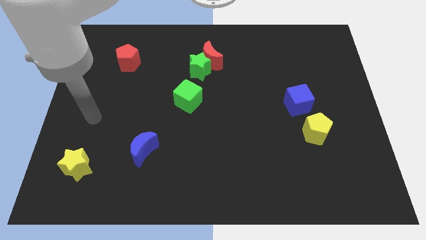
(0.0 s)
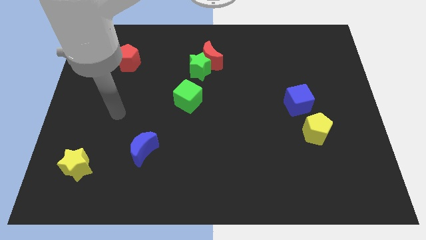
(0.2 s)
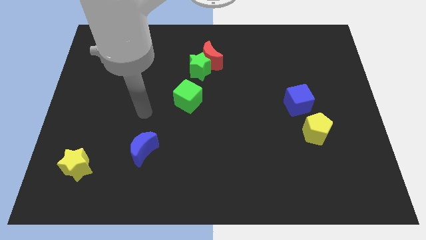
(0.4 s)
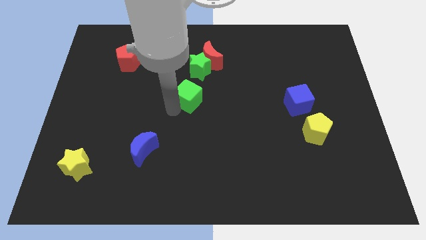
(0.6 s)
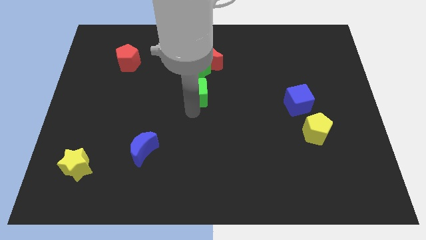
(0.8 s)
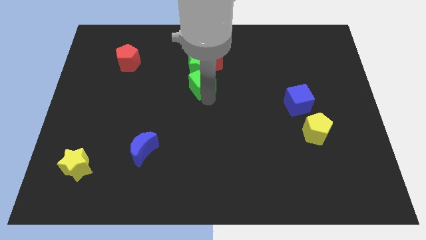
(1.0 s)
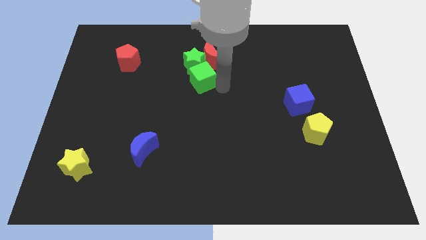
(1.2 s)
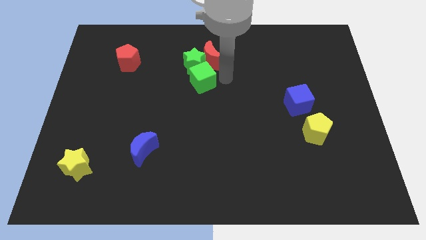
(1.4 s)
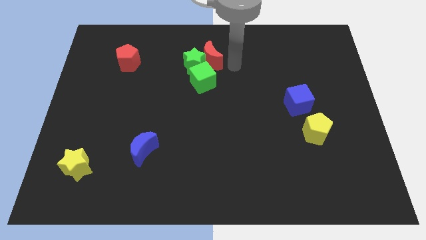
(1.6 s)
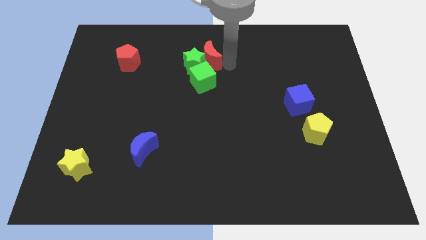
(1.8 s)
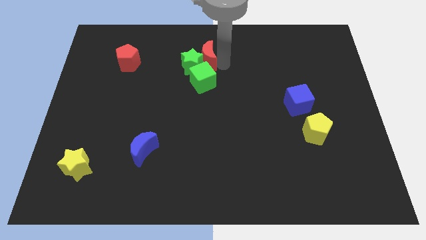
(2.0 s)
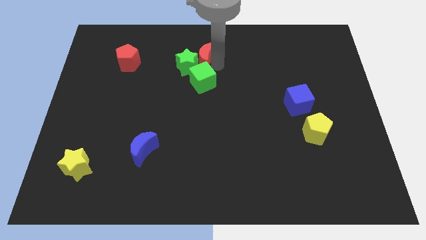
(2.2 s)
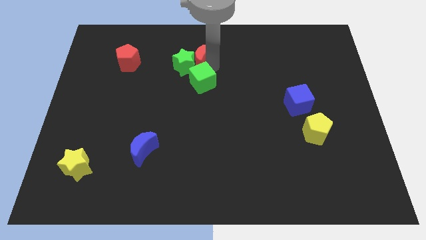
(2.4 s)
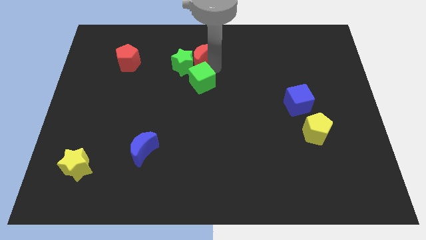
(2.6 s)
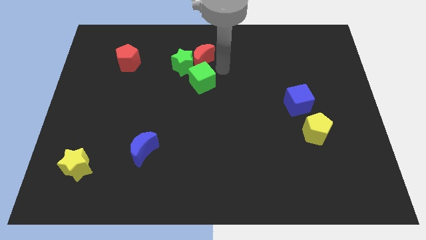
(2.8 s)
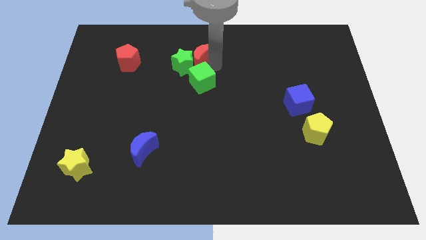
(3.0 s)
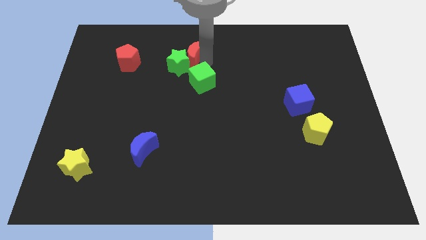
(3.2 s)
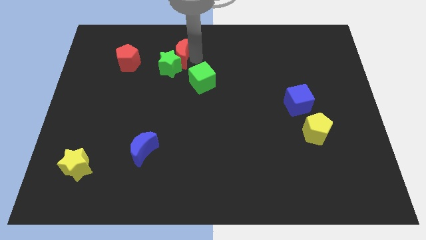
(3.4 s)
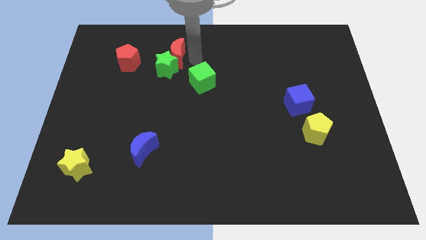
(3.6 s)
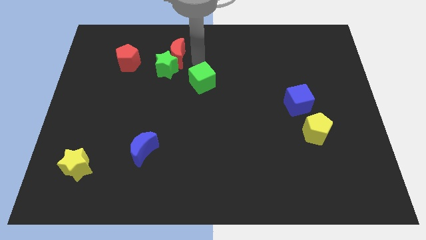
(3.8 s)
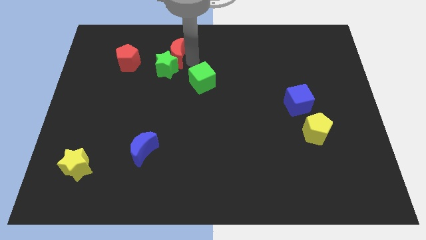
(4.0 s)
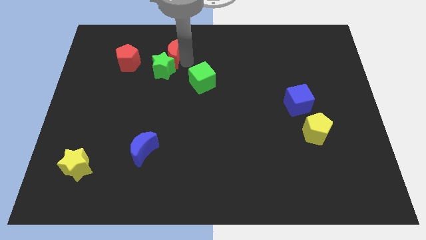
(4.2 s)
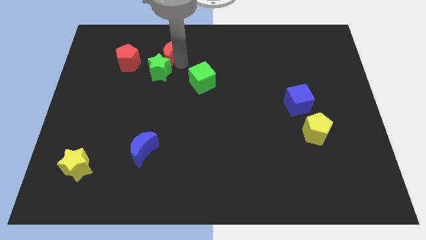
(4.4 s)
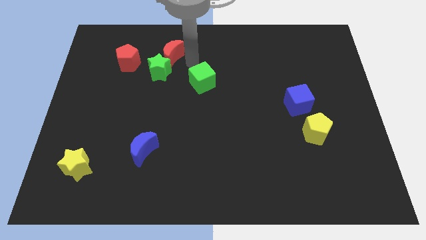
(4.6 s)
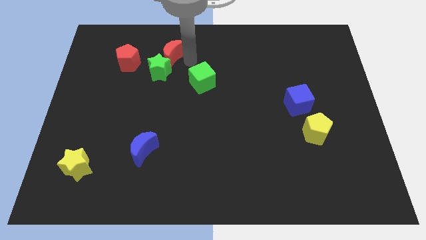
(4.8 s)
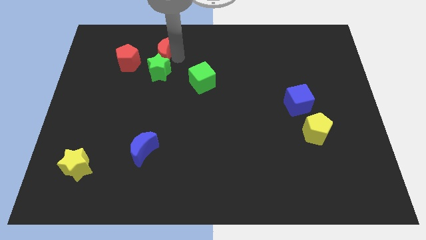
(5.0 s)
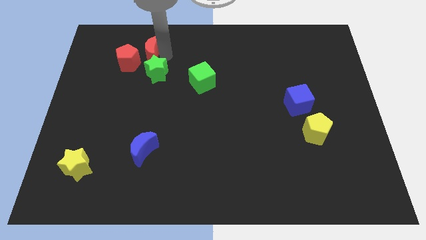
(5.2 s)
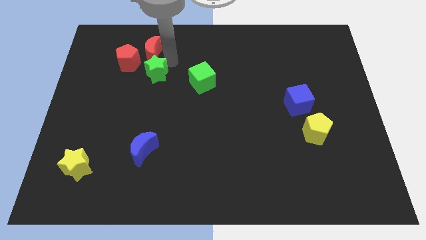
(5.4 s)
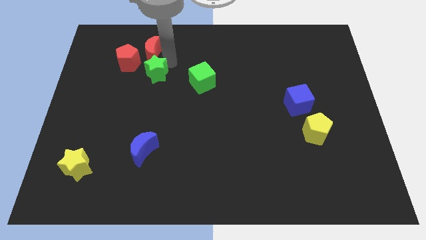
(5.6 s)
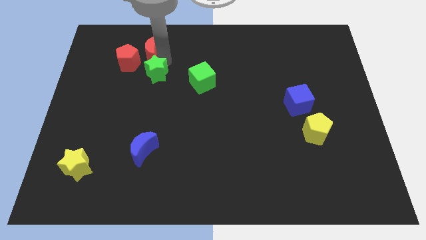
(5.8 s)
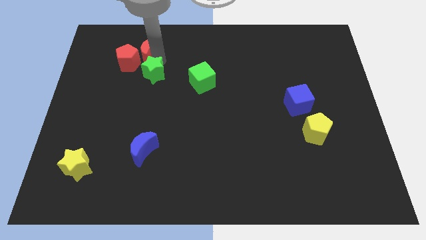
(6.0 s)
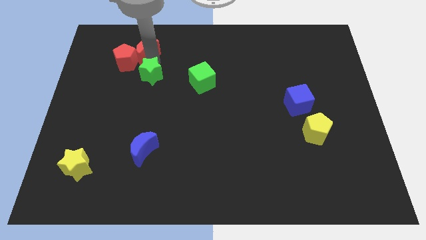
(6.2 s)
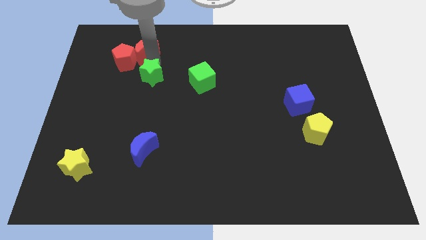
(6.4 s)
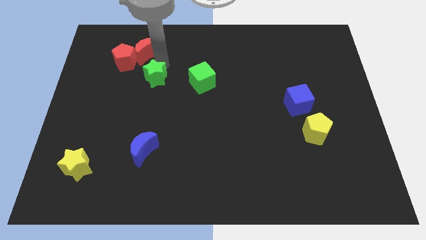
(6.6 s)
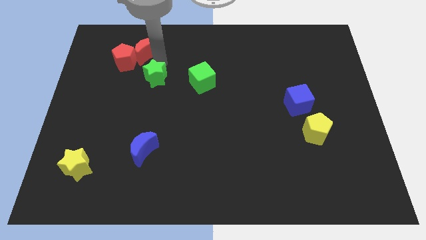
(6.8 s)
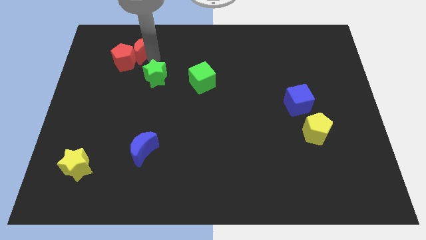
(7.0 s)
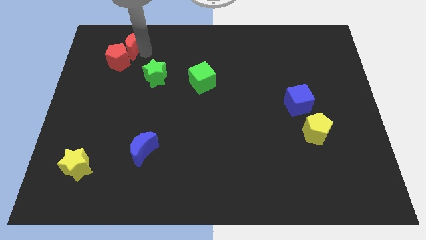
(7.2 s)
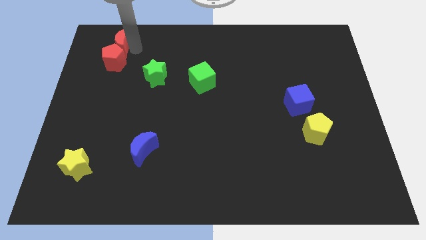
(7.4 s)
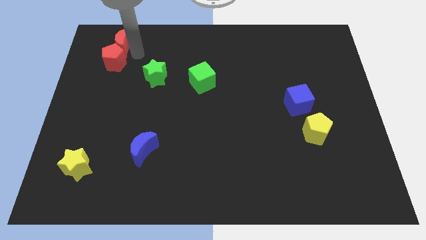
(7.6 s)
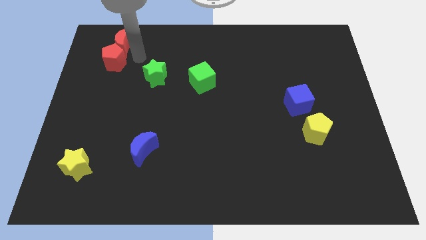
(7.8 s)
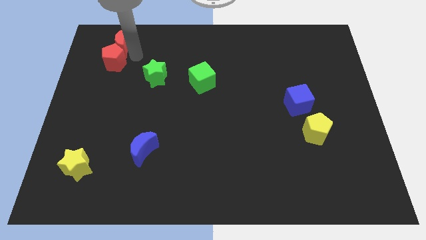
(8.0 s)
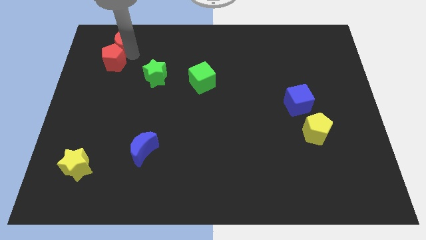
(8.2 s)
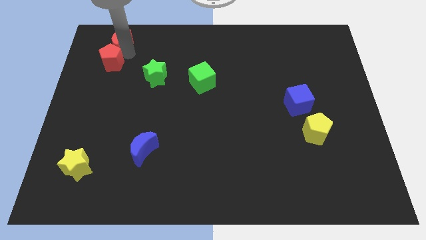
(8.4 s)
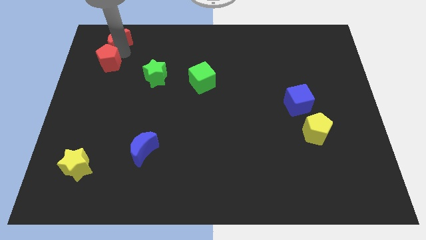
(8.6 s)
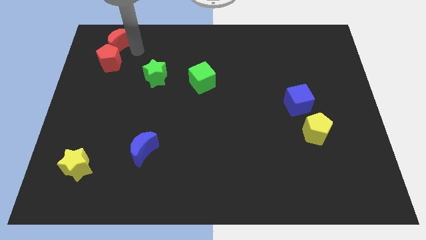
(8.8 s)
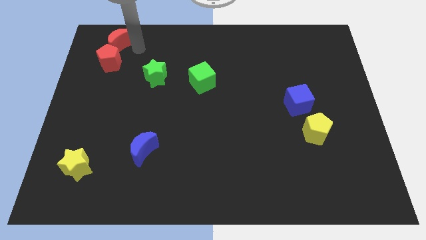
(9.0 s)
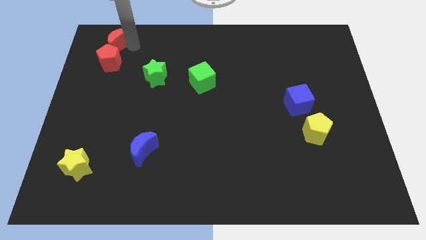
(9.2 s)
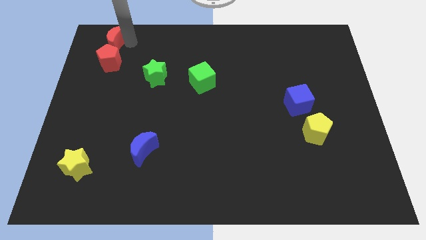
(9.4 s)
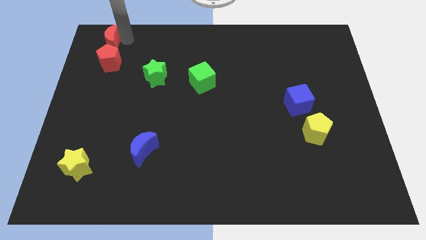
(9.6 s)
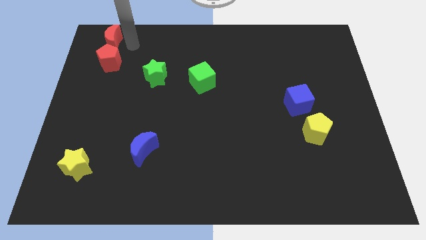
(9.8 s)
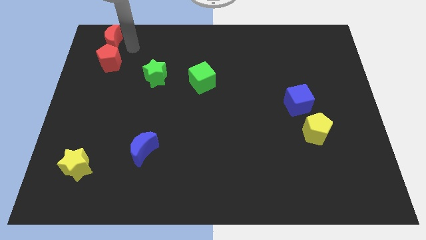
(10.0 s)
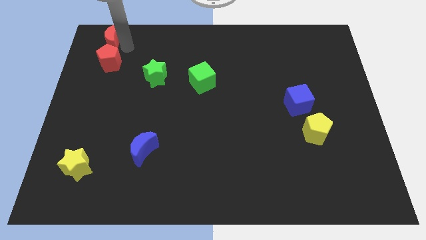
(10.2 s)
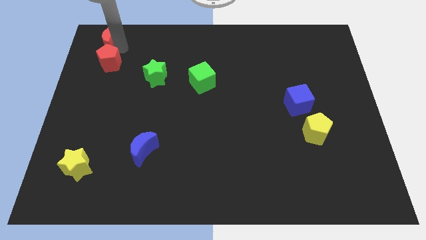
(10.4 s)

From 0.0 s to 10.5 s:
put the red moon to the upper left corner

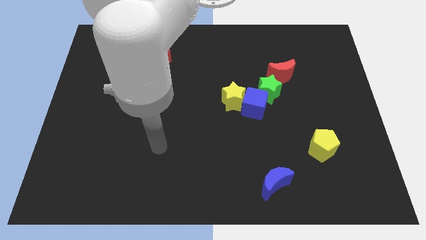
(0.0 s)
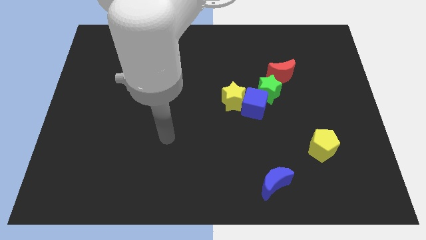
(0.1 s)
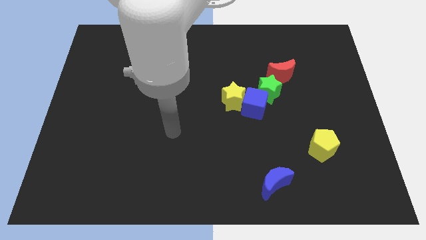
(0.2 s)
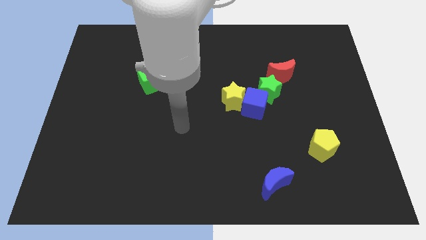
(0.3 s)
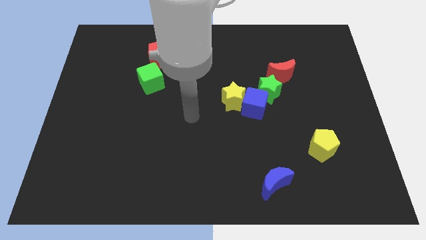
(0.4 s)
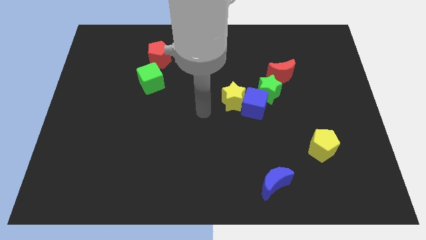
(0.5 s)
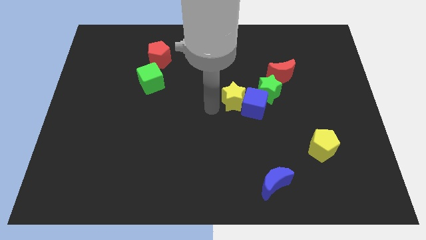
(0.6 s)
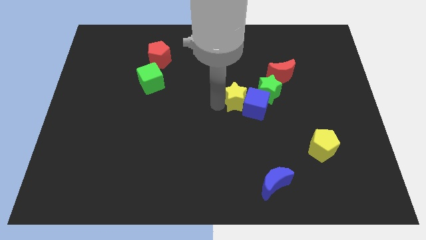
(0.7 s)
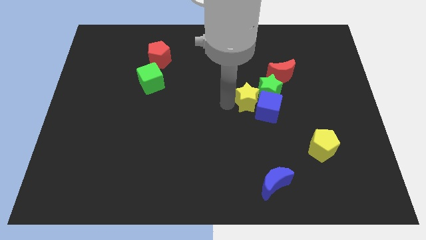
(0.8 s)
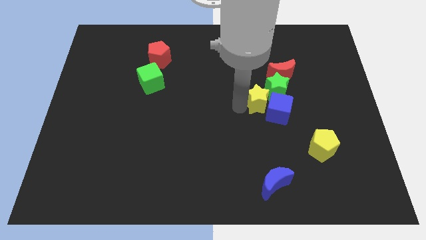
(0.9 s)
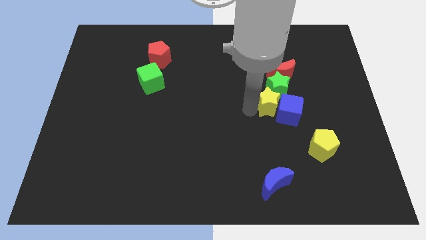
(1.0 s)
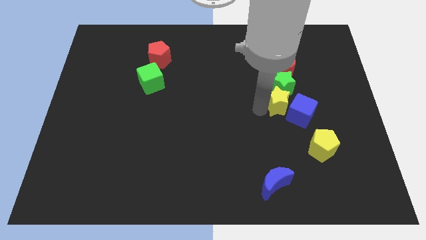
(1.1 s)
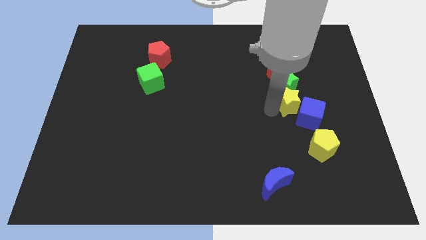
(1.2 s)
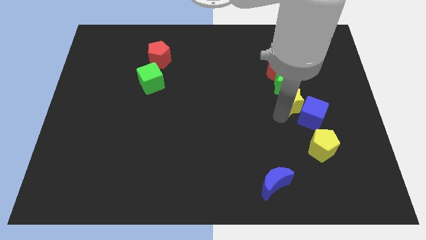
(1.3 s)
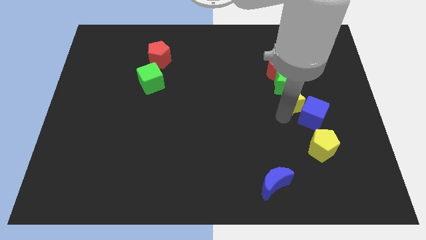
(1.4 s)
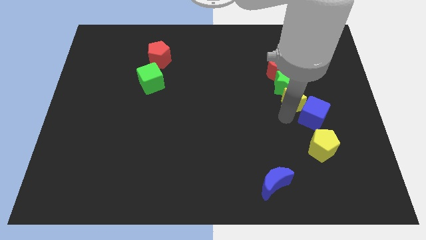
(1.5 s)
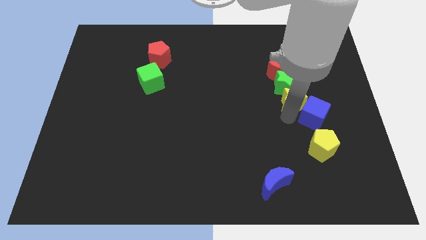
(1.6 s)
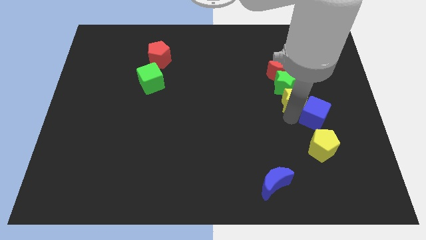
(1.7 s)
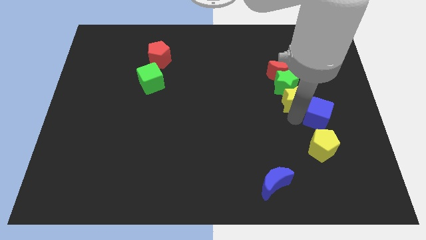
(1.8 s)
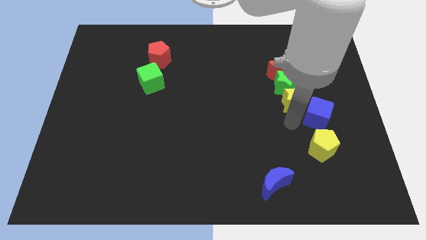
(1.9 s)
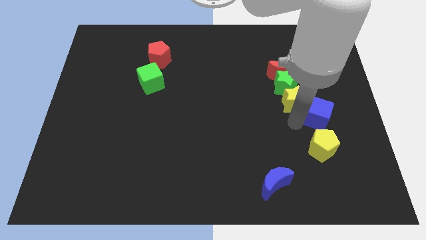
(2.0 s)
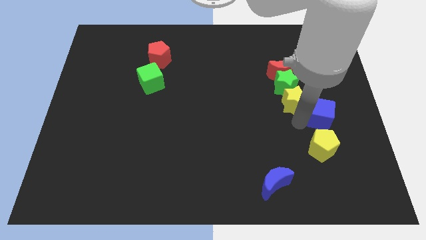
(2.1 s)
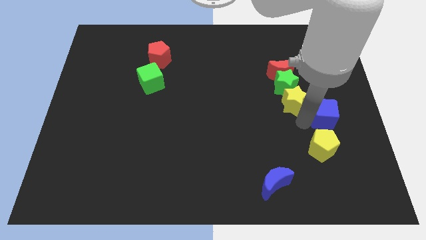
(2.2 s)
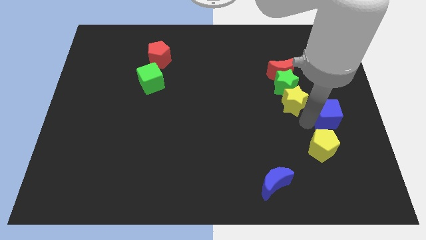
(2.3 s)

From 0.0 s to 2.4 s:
put the blue cube to the right side of the board
